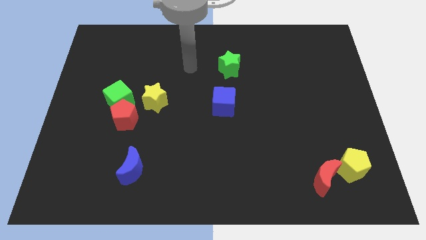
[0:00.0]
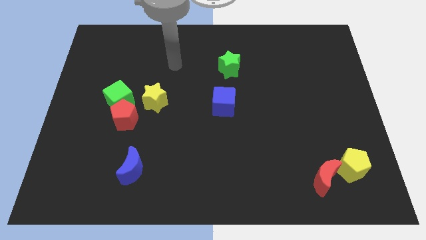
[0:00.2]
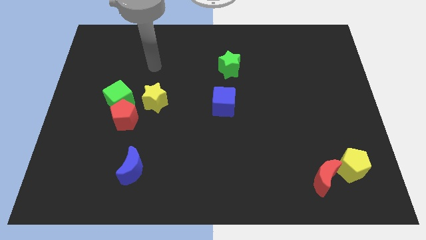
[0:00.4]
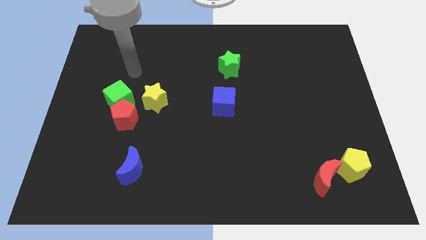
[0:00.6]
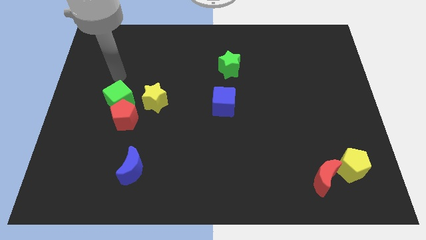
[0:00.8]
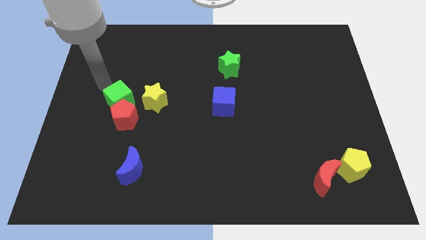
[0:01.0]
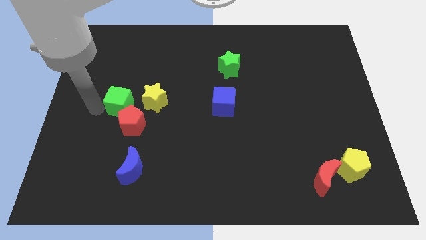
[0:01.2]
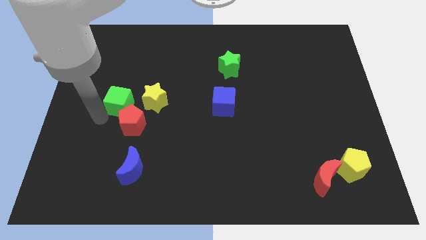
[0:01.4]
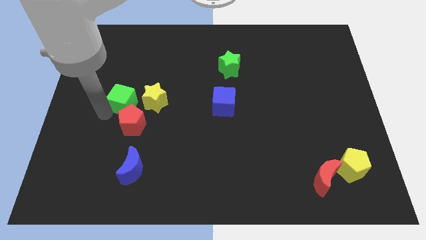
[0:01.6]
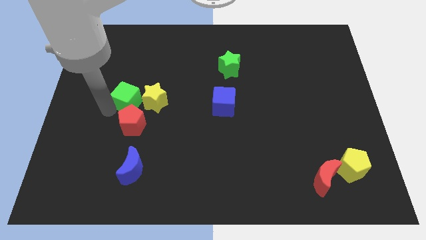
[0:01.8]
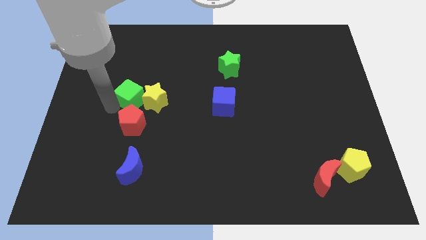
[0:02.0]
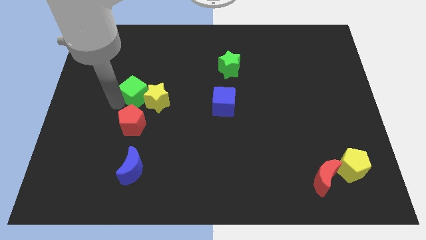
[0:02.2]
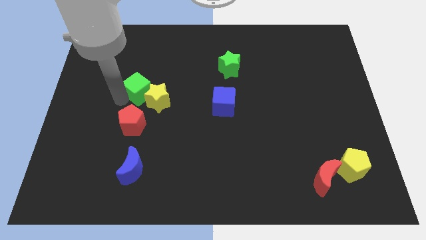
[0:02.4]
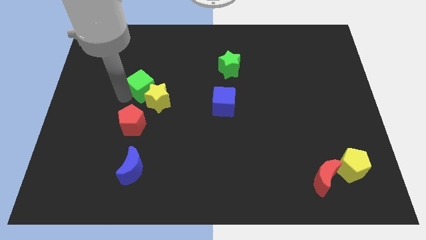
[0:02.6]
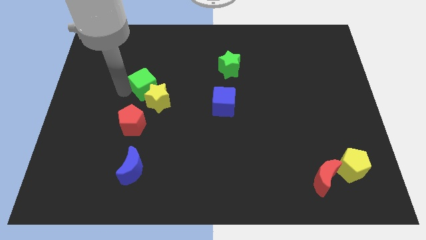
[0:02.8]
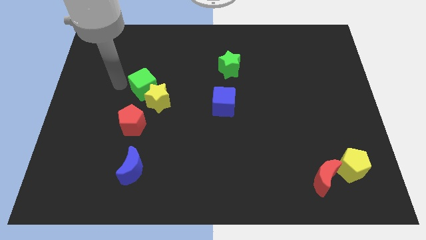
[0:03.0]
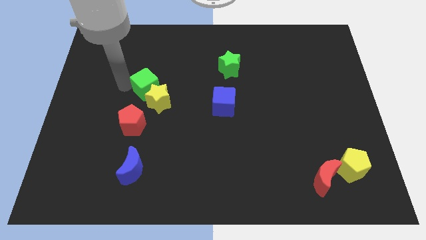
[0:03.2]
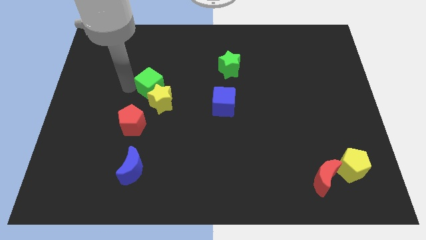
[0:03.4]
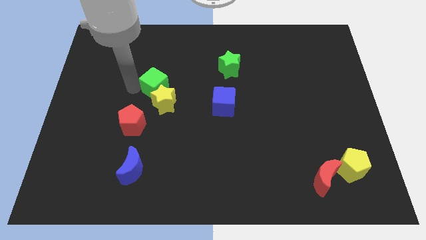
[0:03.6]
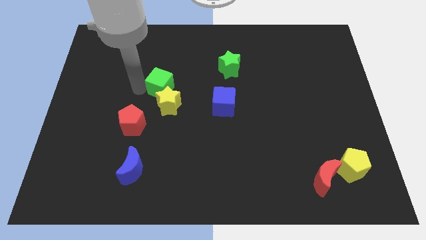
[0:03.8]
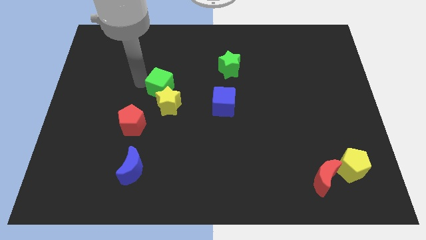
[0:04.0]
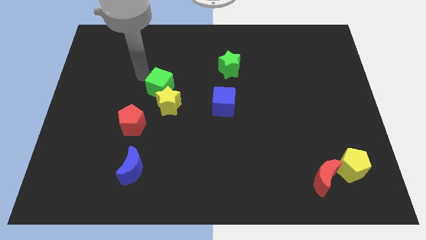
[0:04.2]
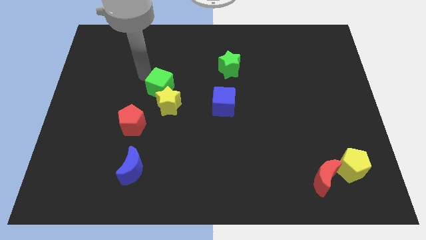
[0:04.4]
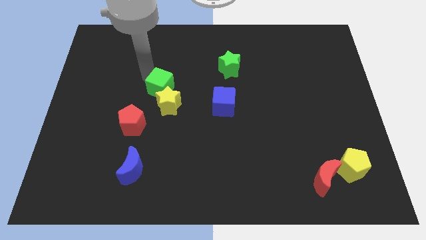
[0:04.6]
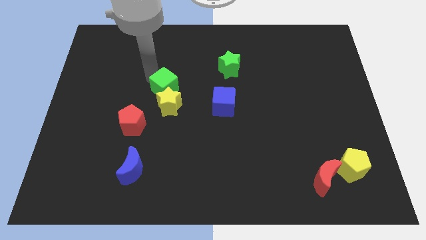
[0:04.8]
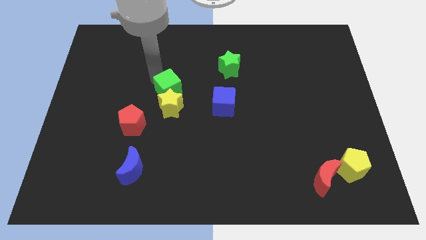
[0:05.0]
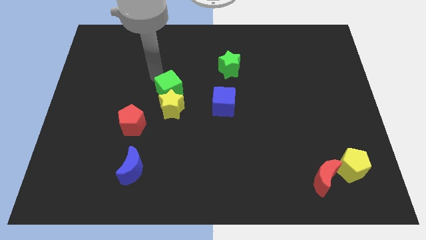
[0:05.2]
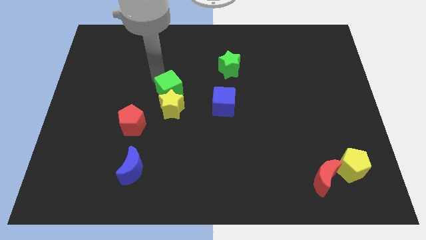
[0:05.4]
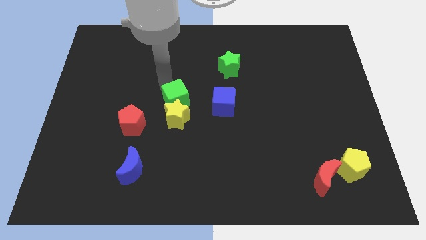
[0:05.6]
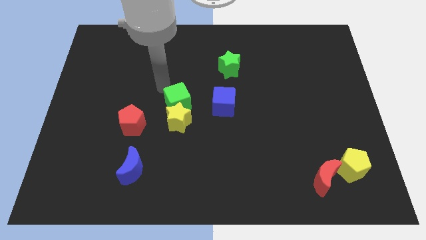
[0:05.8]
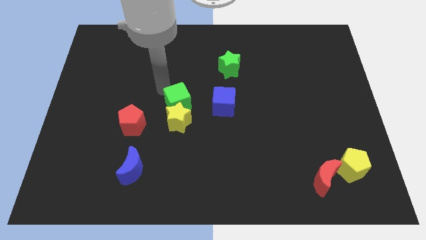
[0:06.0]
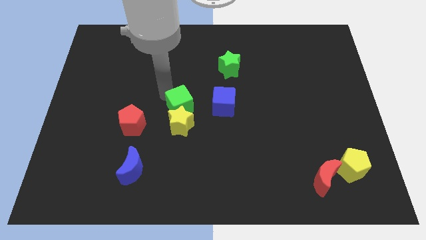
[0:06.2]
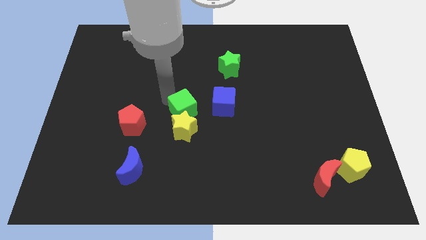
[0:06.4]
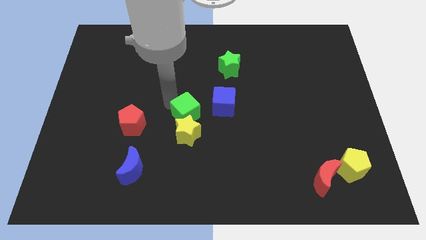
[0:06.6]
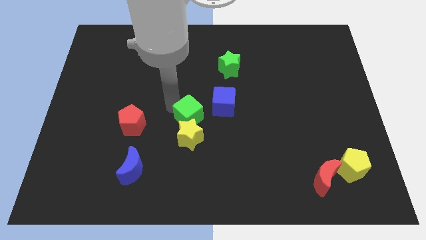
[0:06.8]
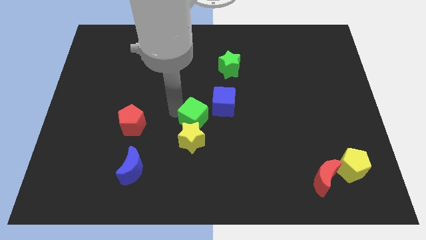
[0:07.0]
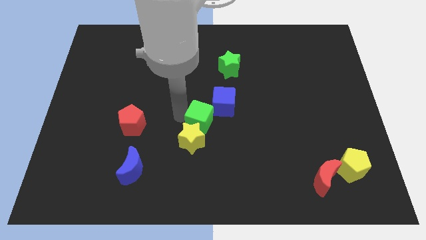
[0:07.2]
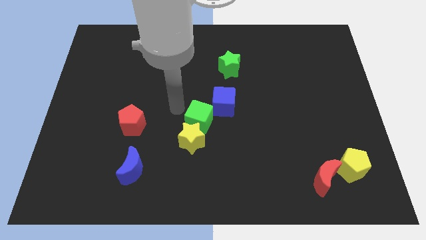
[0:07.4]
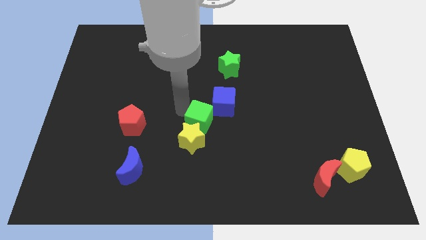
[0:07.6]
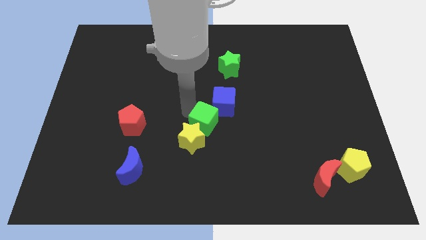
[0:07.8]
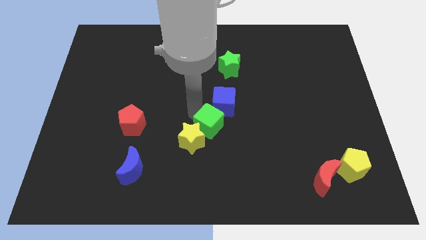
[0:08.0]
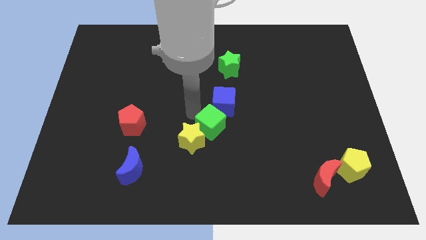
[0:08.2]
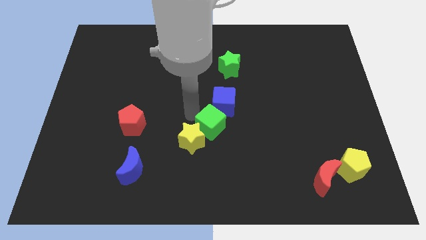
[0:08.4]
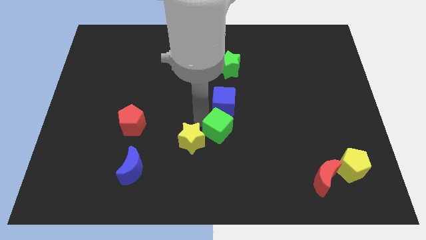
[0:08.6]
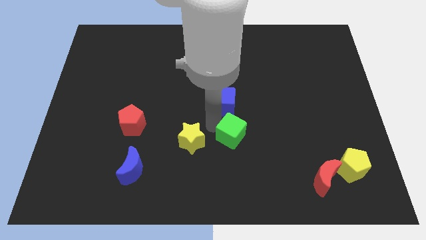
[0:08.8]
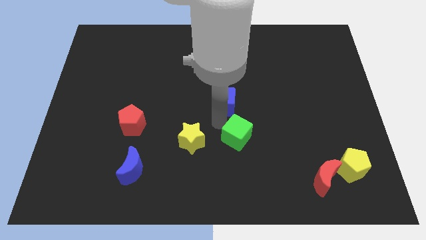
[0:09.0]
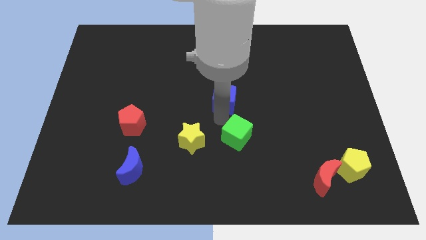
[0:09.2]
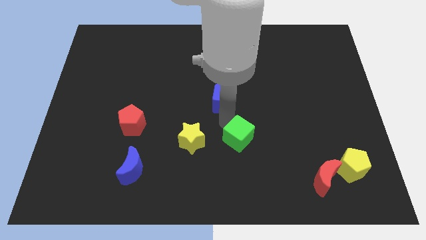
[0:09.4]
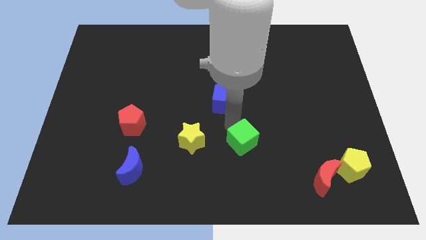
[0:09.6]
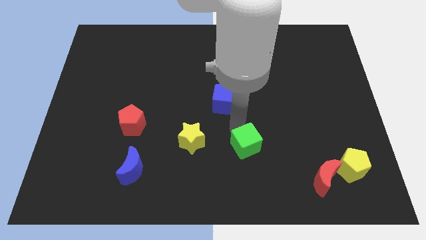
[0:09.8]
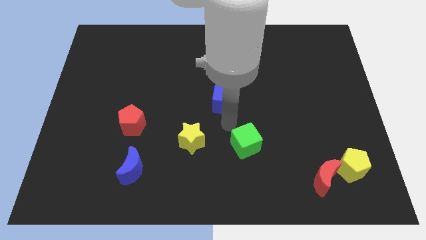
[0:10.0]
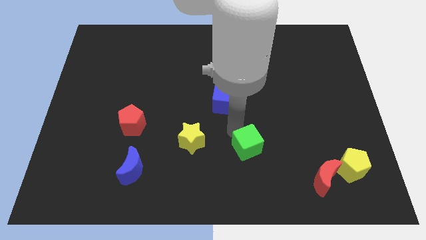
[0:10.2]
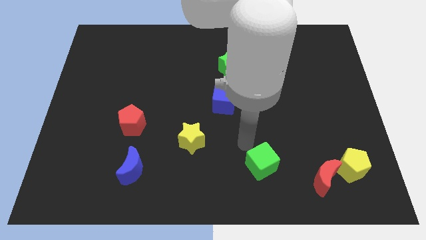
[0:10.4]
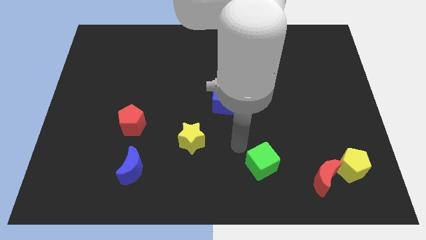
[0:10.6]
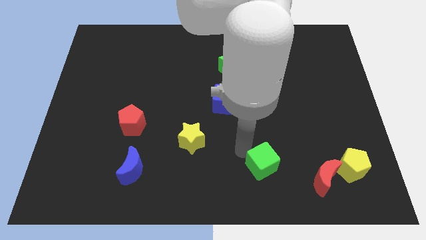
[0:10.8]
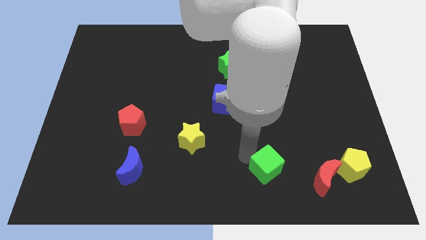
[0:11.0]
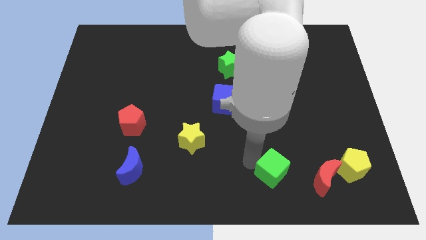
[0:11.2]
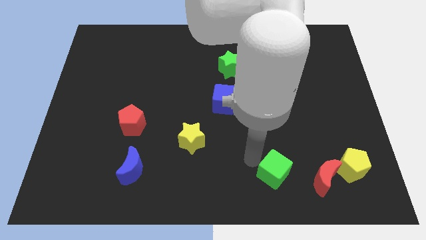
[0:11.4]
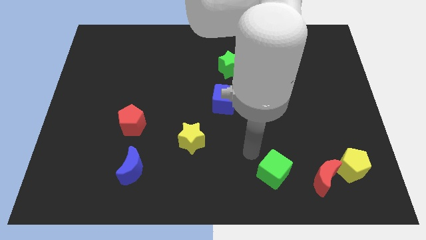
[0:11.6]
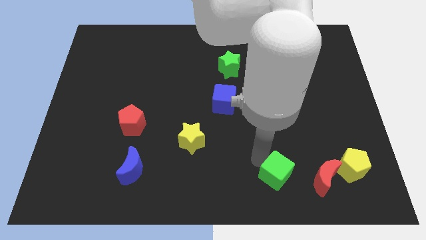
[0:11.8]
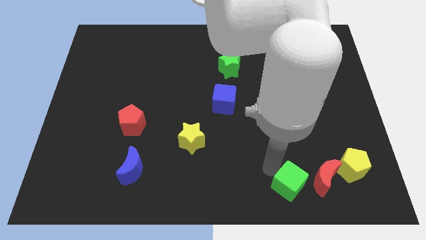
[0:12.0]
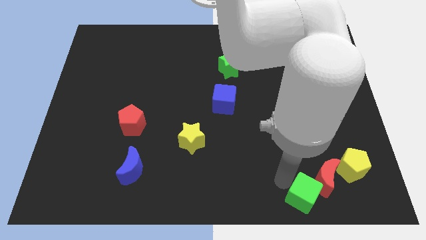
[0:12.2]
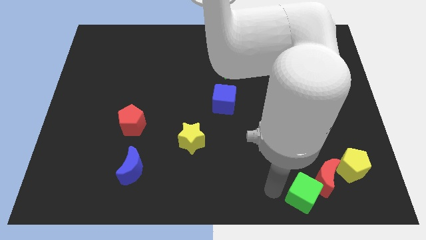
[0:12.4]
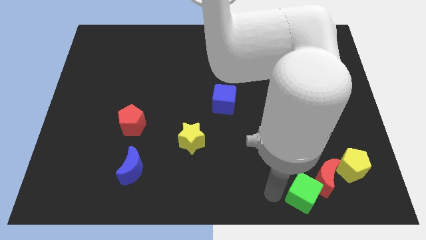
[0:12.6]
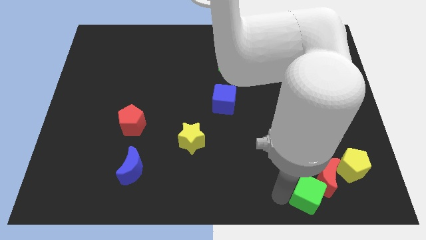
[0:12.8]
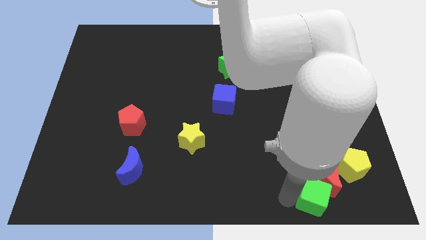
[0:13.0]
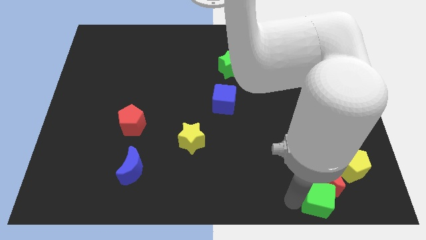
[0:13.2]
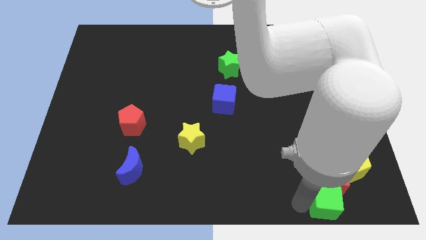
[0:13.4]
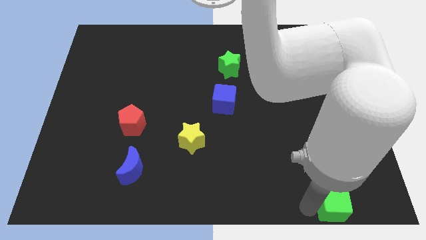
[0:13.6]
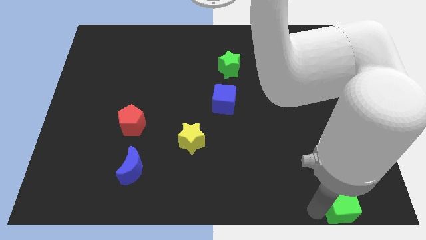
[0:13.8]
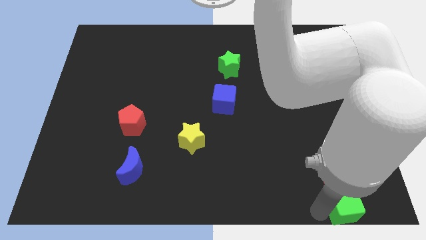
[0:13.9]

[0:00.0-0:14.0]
push the green cube to the bottom right corner

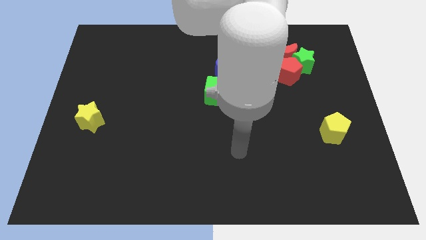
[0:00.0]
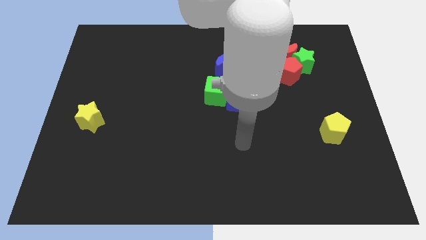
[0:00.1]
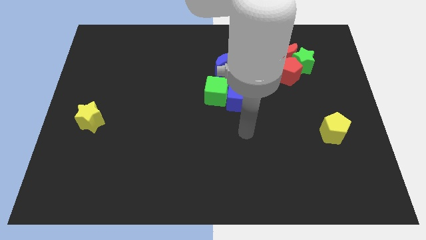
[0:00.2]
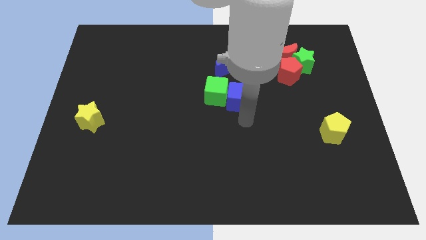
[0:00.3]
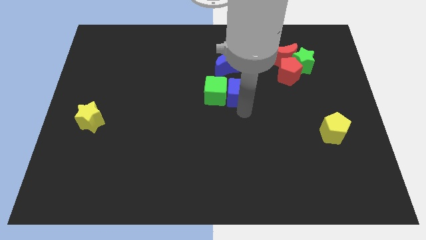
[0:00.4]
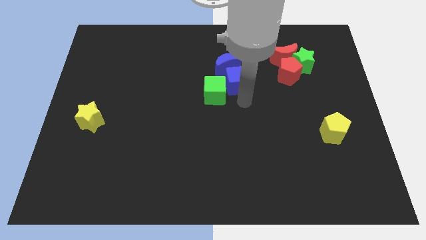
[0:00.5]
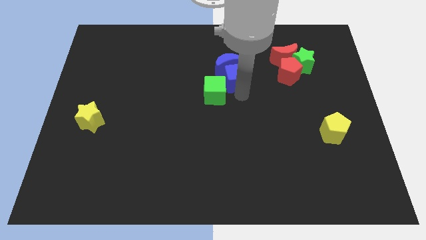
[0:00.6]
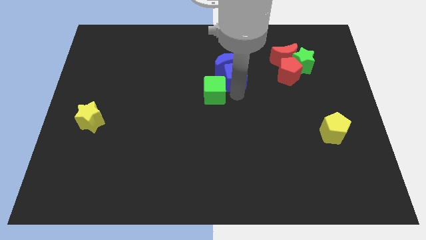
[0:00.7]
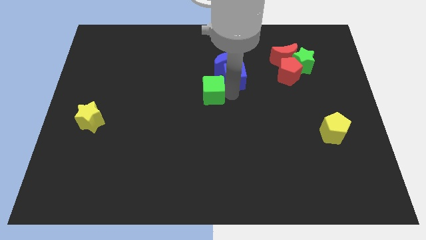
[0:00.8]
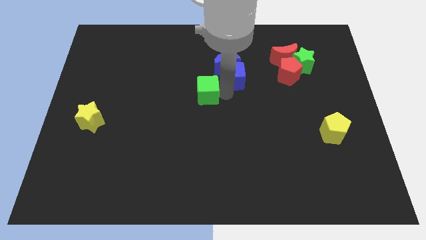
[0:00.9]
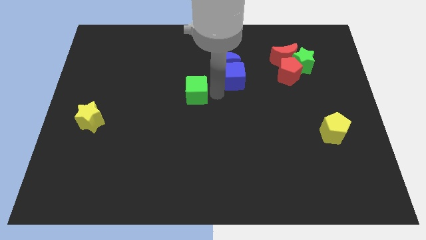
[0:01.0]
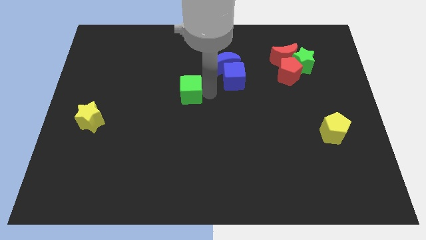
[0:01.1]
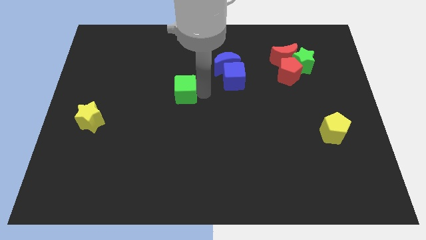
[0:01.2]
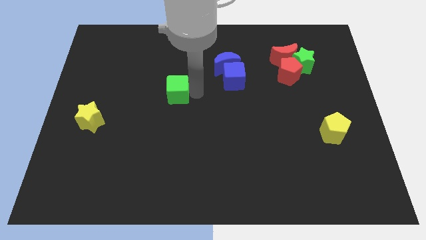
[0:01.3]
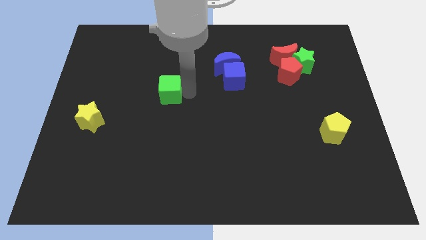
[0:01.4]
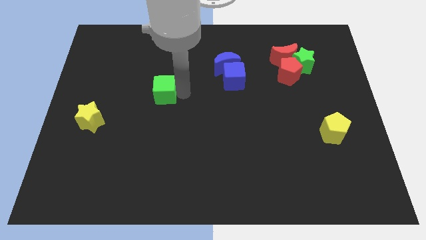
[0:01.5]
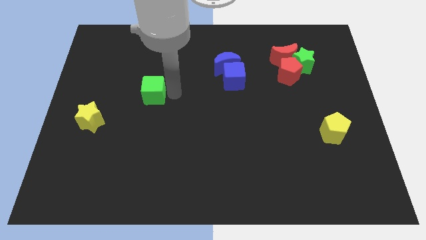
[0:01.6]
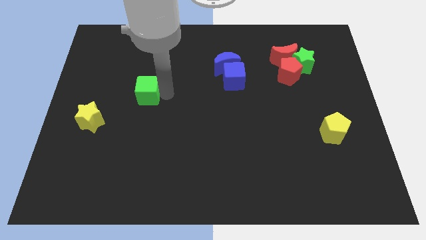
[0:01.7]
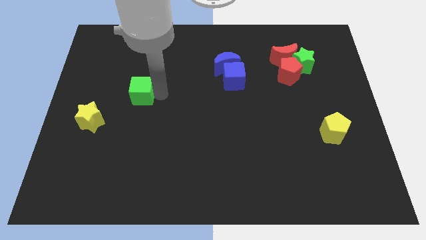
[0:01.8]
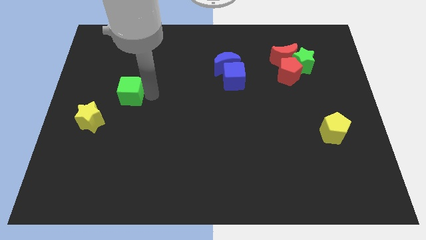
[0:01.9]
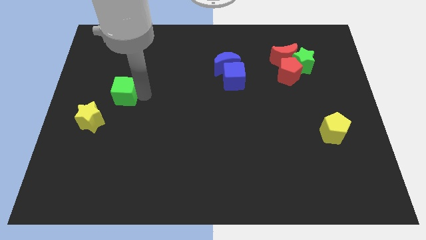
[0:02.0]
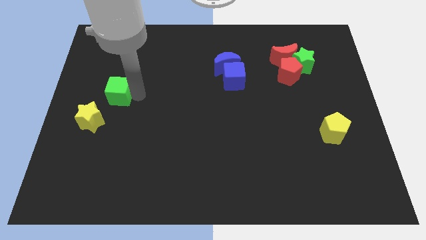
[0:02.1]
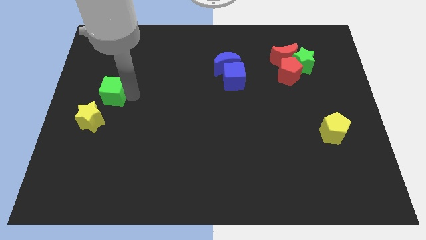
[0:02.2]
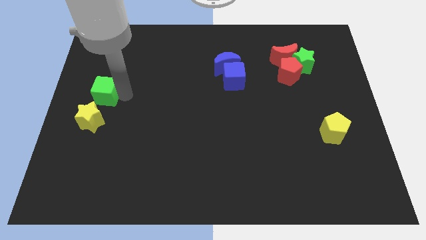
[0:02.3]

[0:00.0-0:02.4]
slide the green cube to the left side
